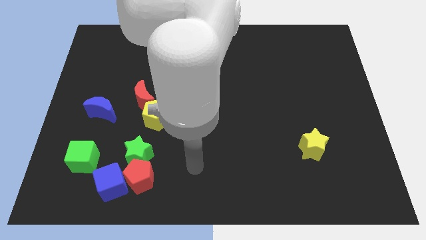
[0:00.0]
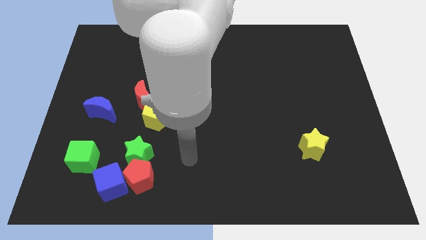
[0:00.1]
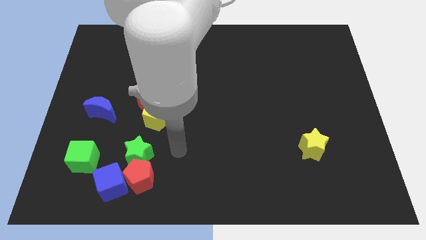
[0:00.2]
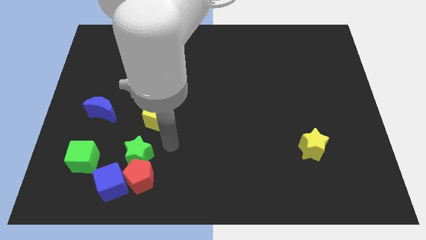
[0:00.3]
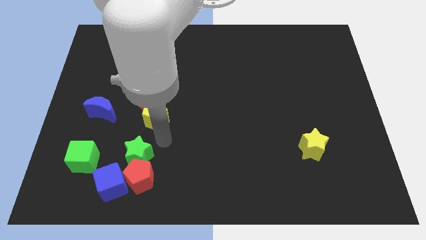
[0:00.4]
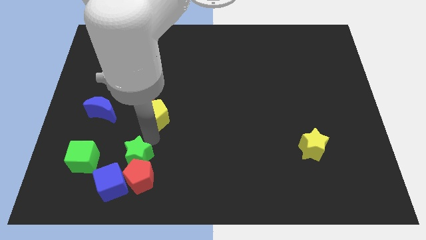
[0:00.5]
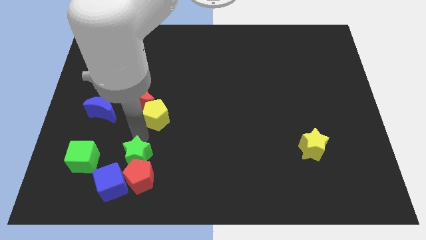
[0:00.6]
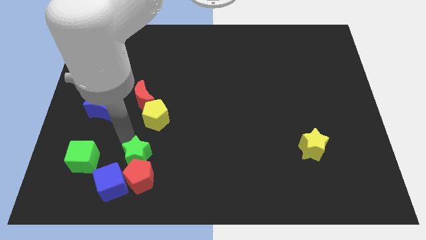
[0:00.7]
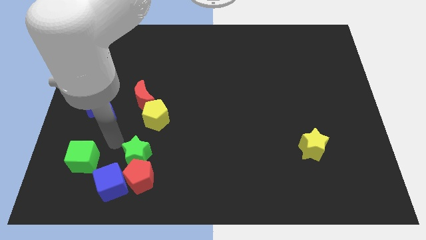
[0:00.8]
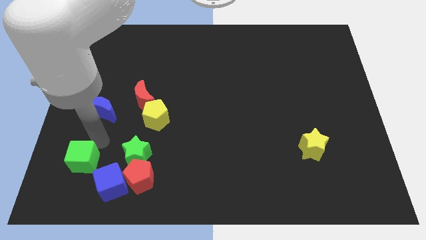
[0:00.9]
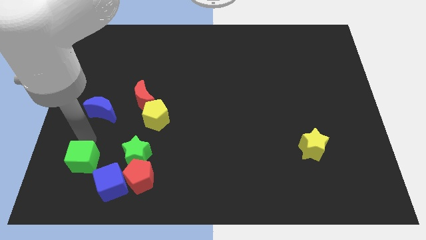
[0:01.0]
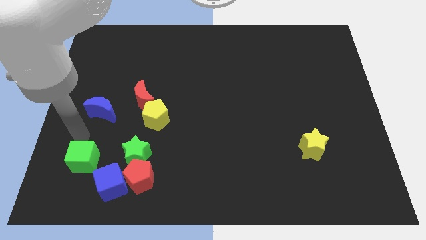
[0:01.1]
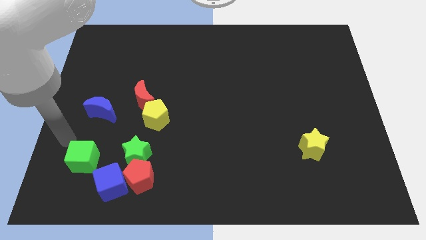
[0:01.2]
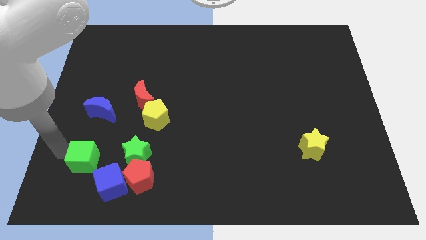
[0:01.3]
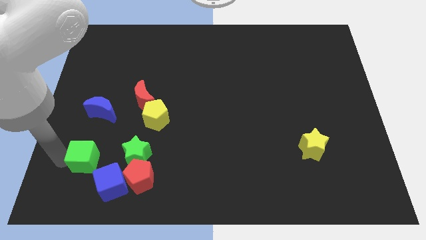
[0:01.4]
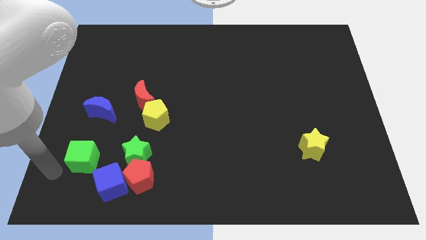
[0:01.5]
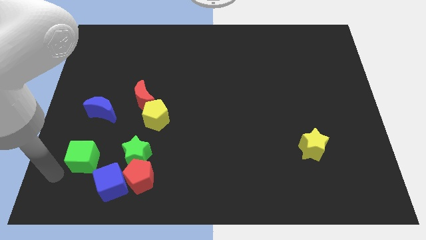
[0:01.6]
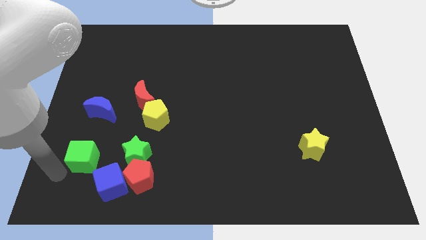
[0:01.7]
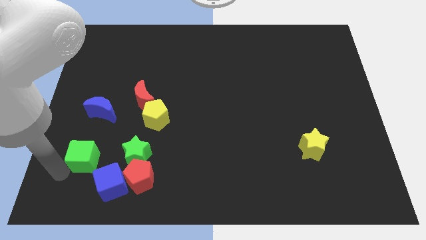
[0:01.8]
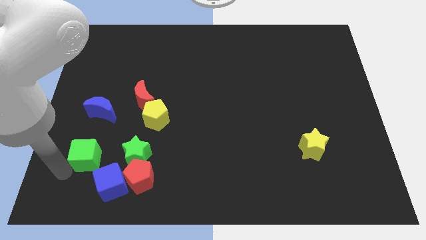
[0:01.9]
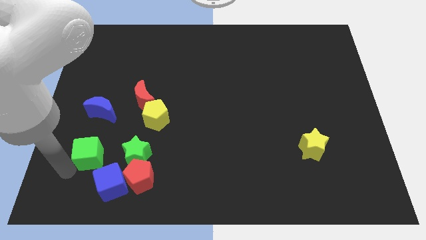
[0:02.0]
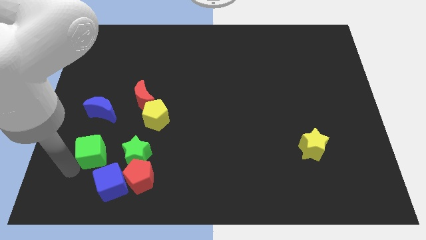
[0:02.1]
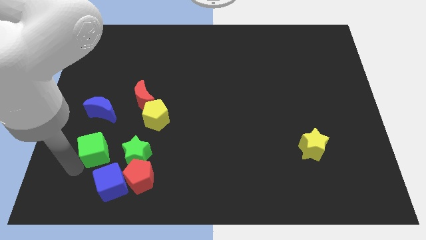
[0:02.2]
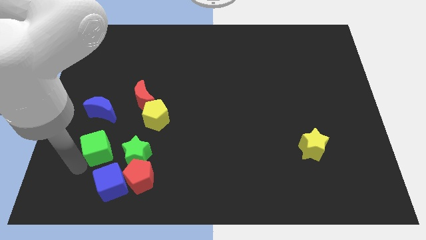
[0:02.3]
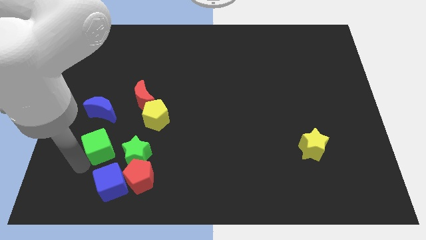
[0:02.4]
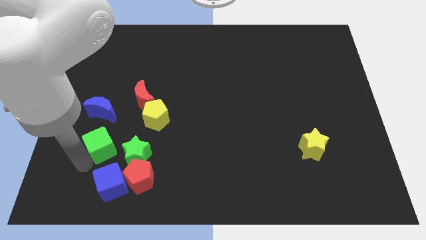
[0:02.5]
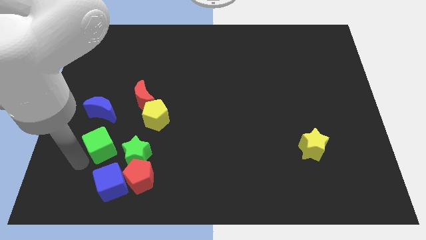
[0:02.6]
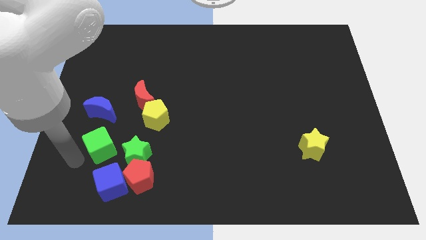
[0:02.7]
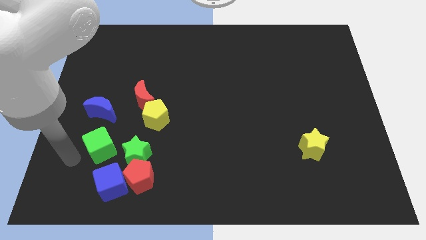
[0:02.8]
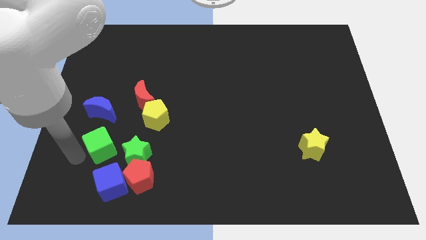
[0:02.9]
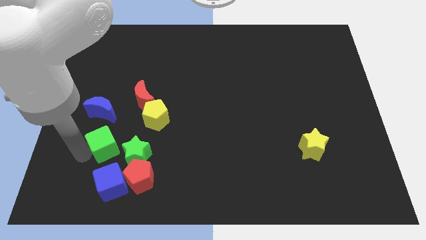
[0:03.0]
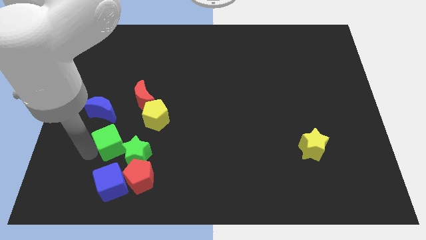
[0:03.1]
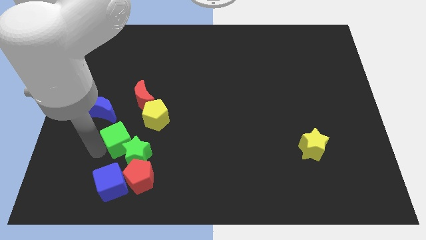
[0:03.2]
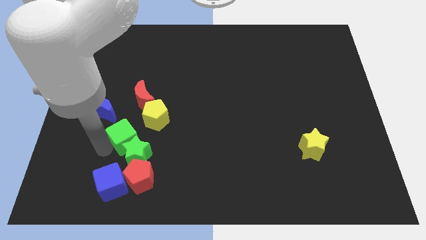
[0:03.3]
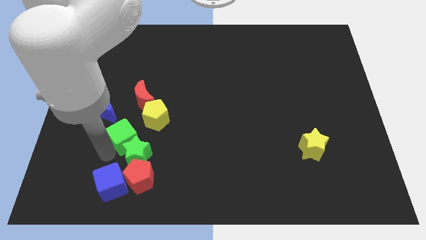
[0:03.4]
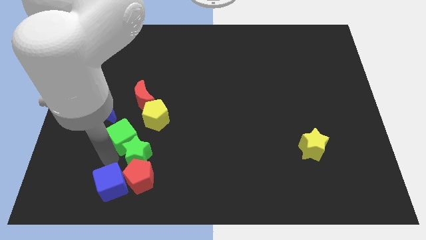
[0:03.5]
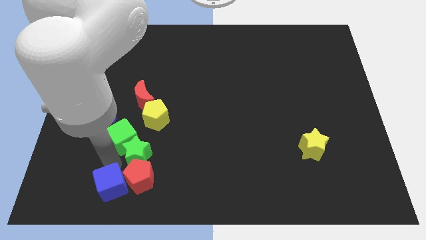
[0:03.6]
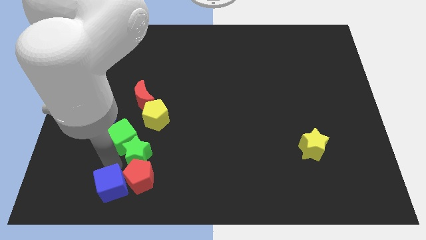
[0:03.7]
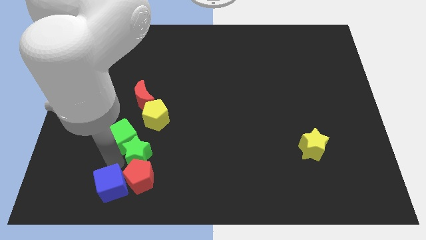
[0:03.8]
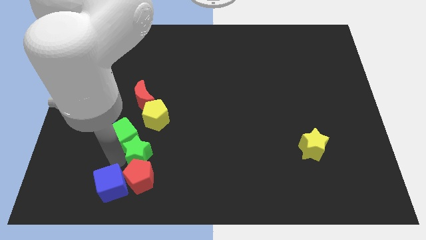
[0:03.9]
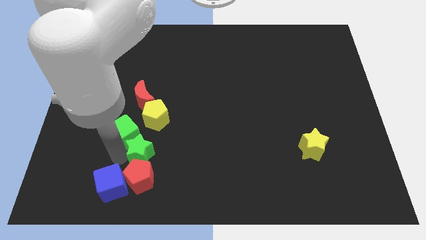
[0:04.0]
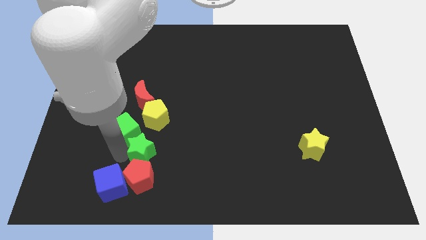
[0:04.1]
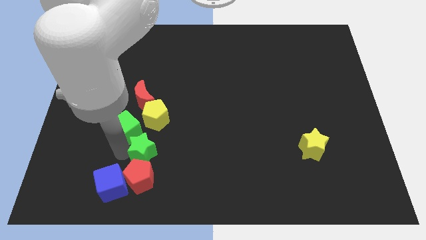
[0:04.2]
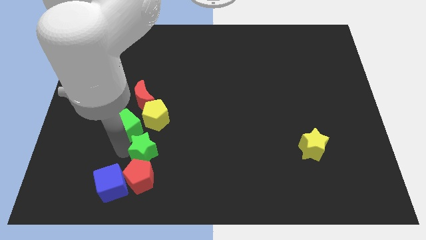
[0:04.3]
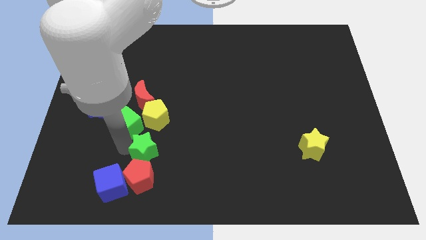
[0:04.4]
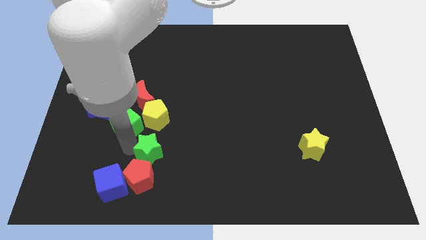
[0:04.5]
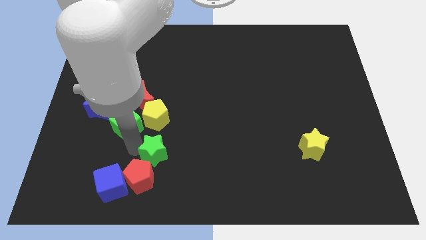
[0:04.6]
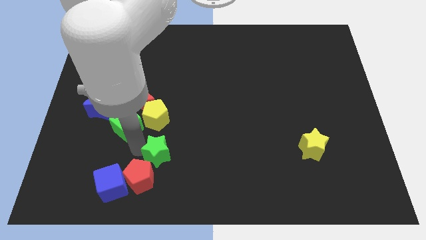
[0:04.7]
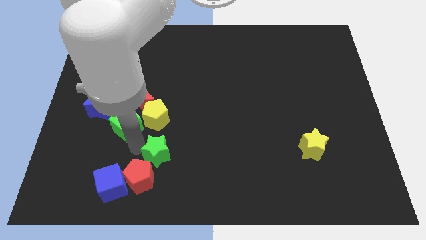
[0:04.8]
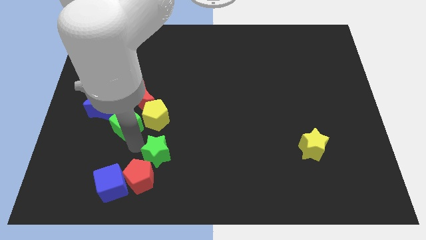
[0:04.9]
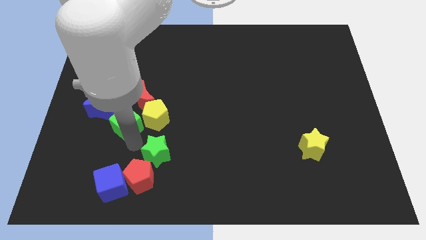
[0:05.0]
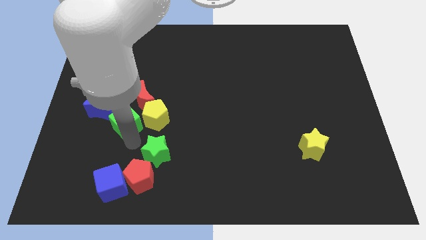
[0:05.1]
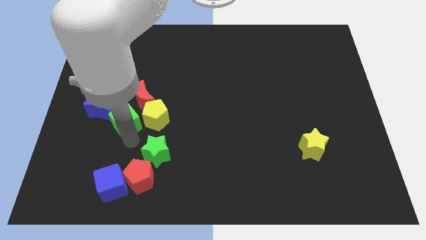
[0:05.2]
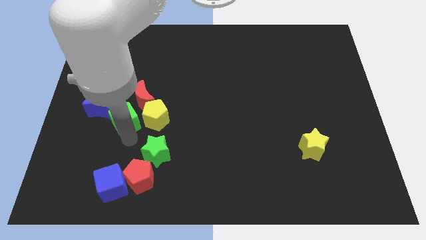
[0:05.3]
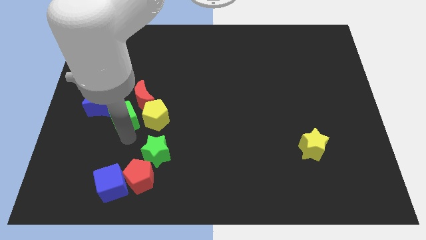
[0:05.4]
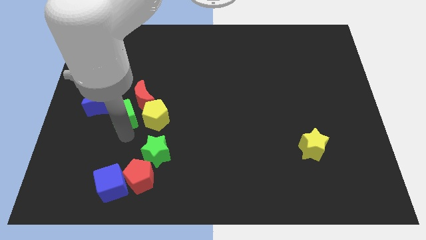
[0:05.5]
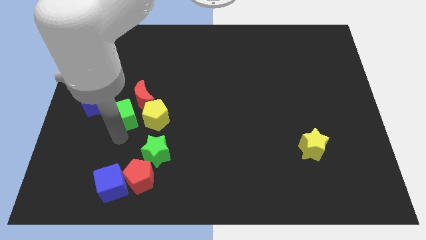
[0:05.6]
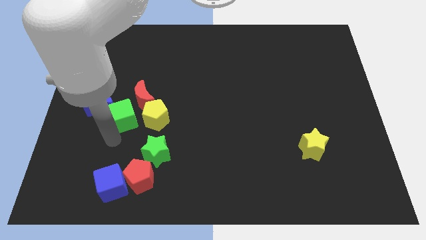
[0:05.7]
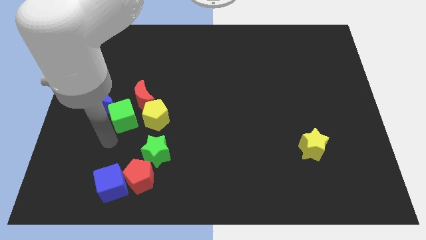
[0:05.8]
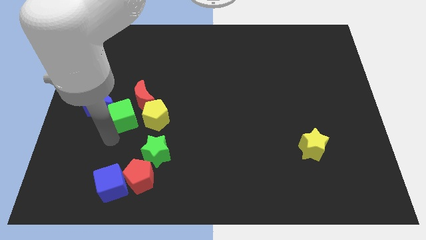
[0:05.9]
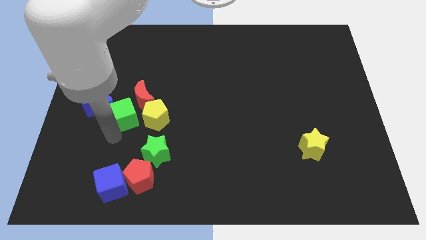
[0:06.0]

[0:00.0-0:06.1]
slide the green cube to the top left side of the yellow pentagon

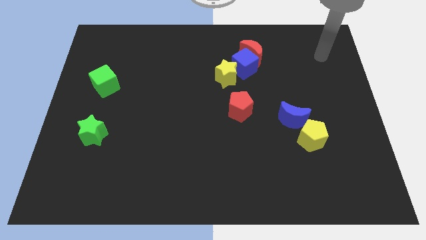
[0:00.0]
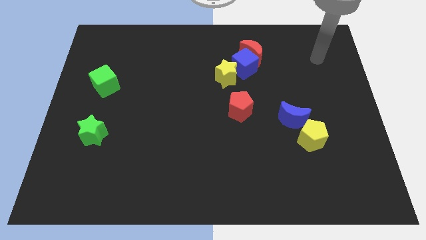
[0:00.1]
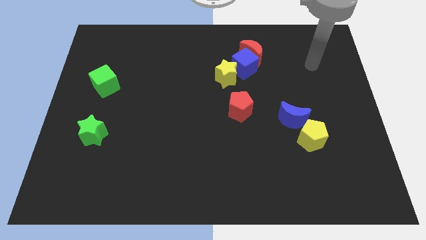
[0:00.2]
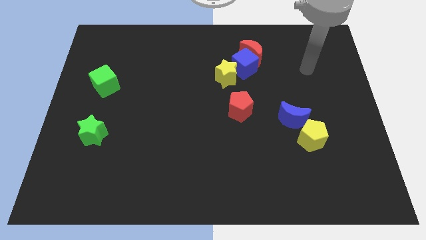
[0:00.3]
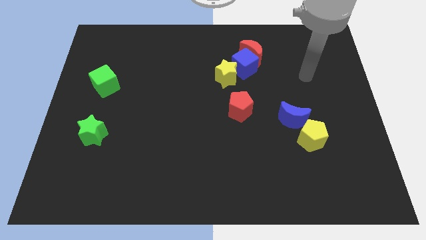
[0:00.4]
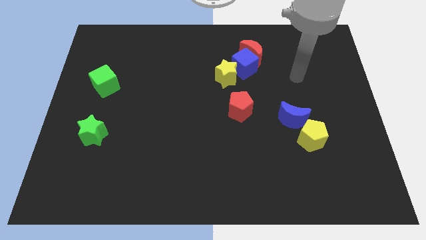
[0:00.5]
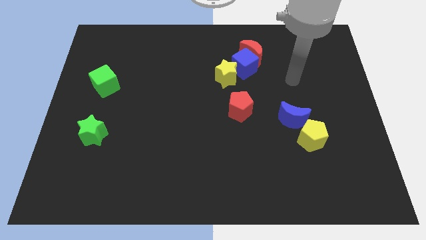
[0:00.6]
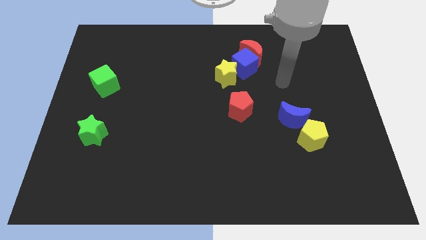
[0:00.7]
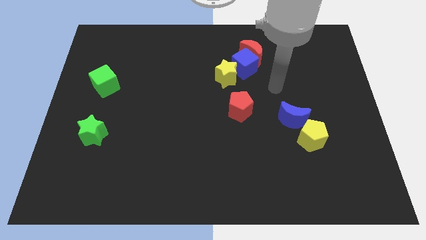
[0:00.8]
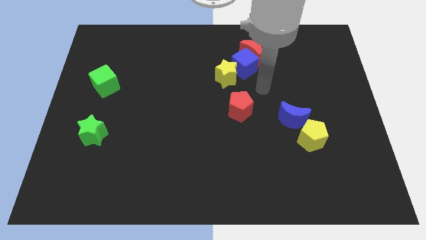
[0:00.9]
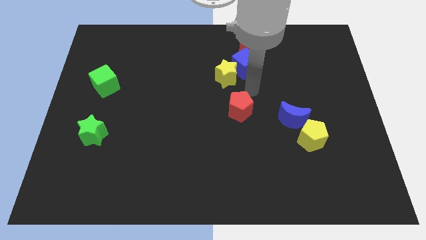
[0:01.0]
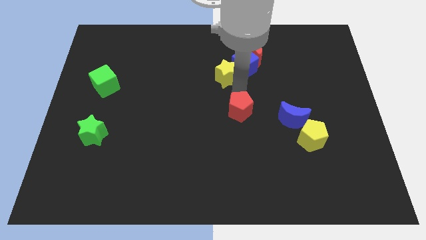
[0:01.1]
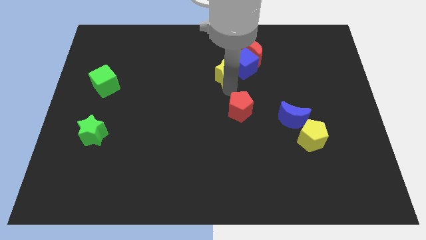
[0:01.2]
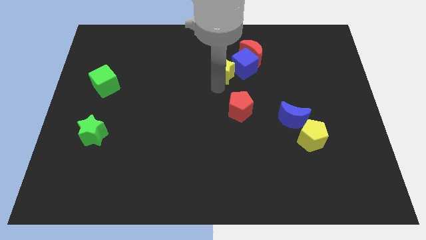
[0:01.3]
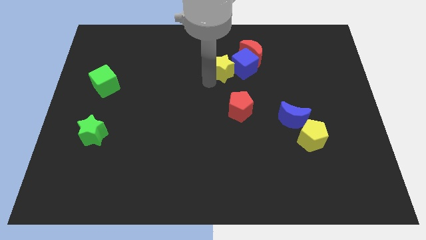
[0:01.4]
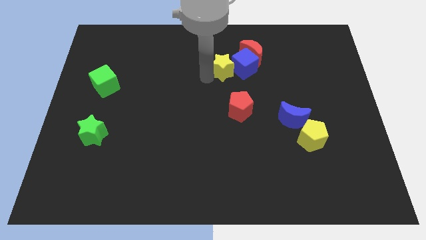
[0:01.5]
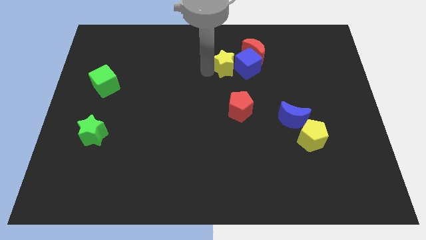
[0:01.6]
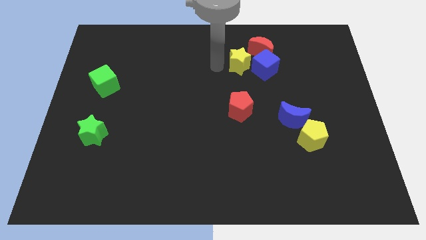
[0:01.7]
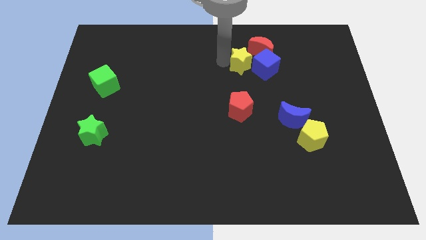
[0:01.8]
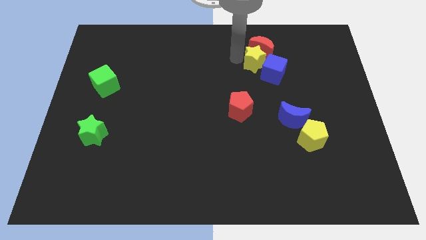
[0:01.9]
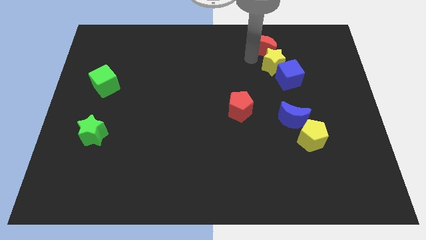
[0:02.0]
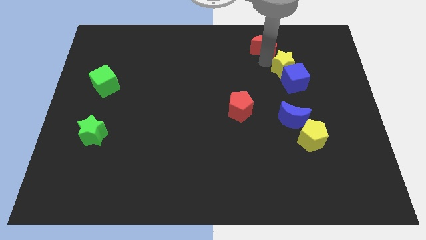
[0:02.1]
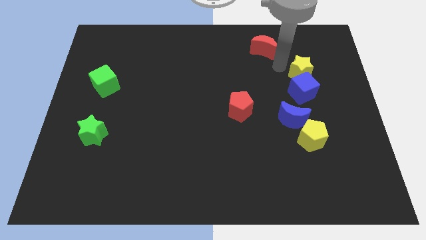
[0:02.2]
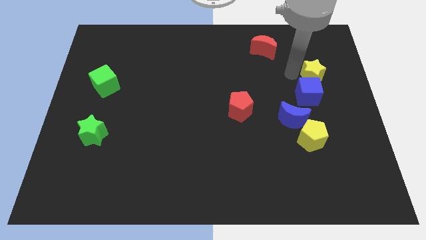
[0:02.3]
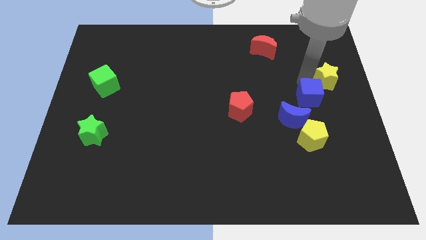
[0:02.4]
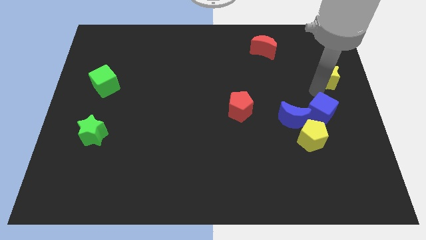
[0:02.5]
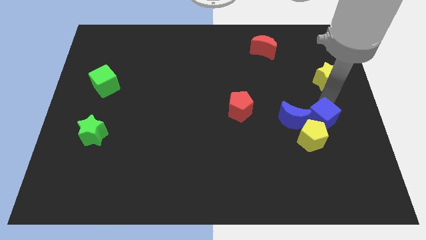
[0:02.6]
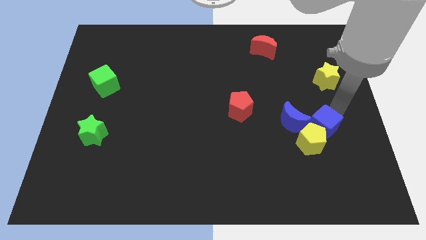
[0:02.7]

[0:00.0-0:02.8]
slide the blue cube diagonally down and to the right of the blue moon
